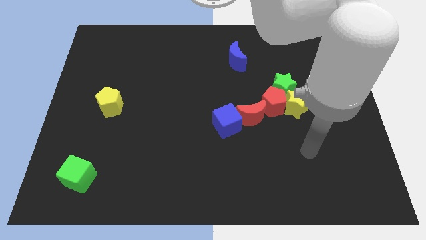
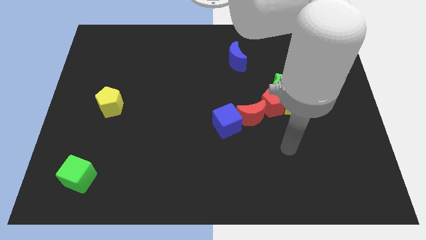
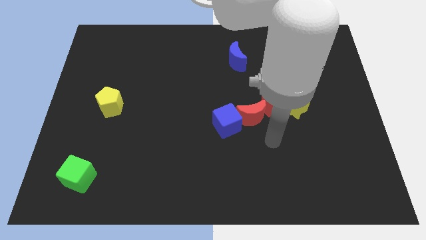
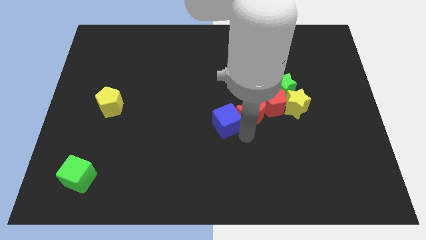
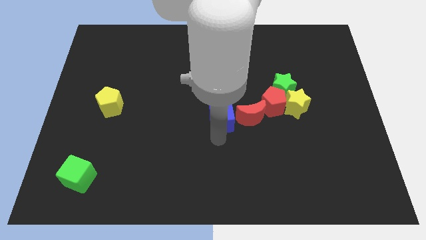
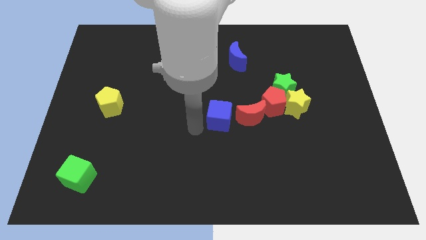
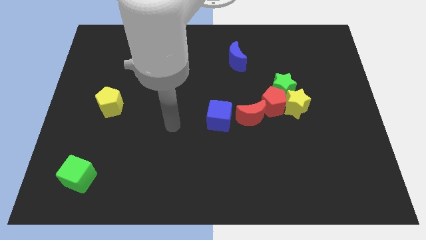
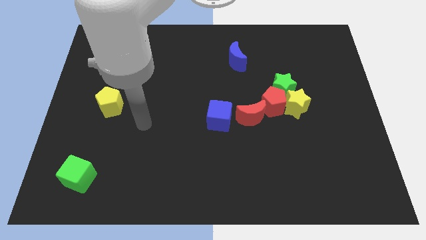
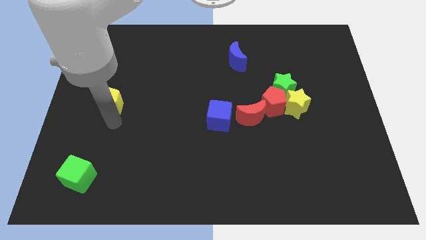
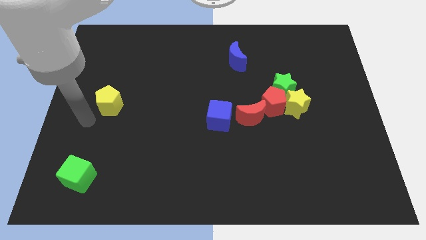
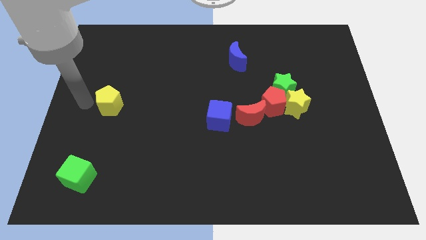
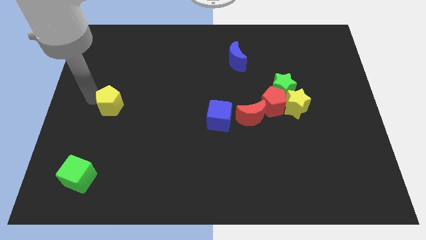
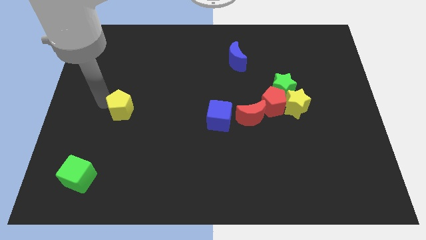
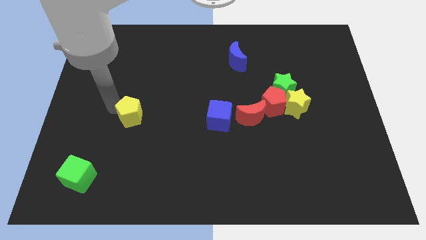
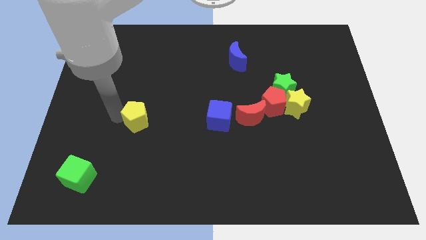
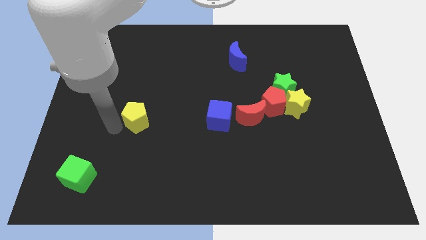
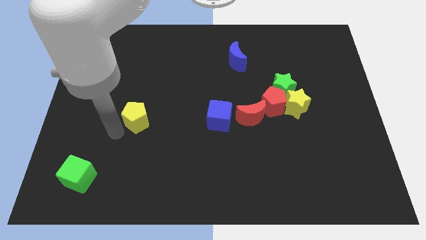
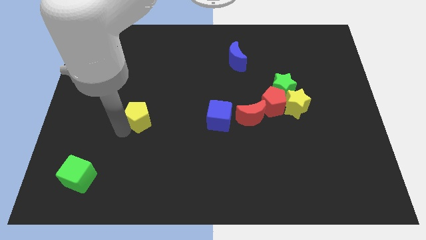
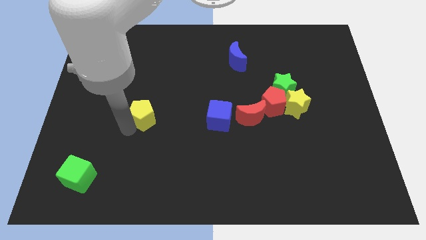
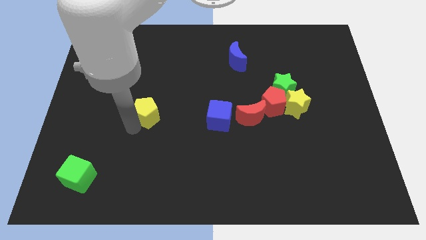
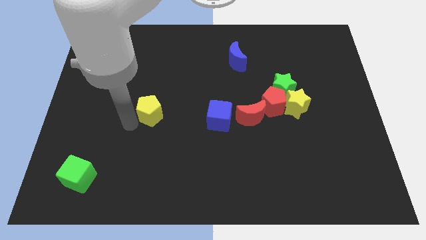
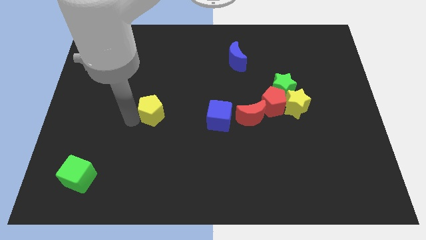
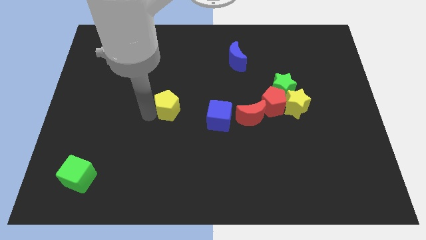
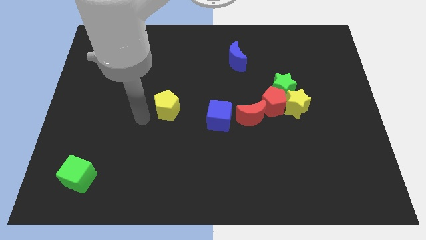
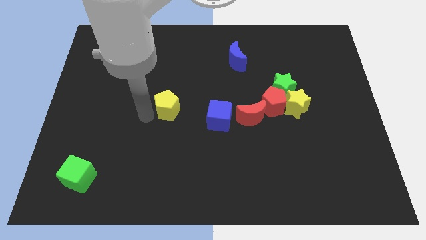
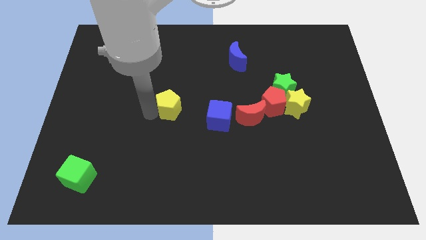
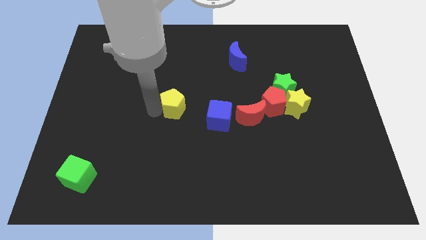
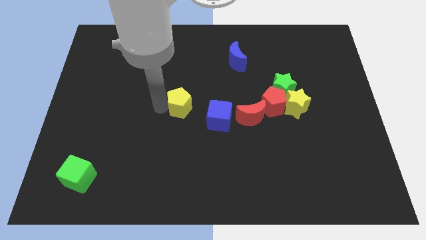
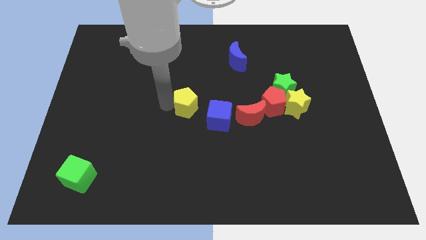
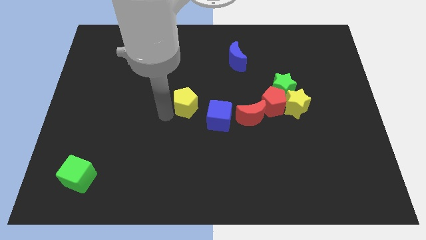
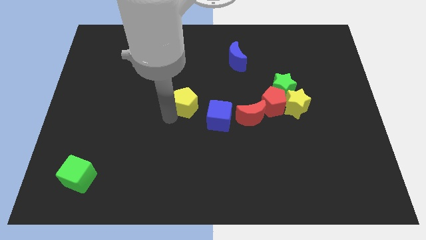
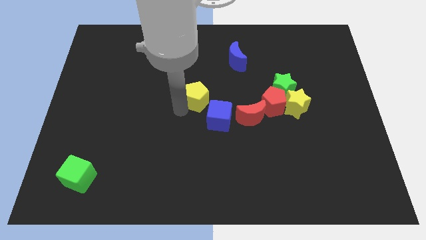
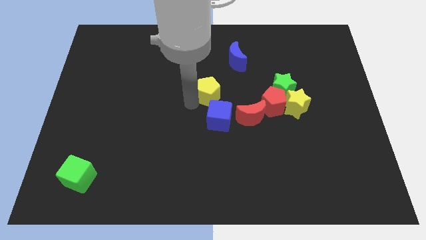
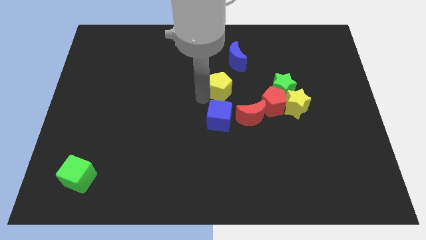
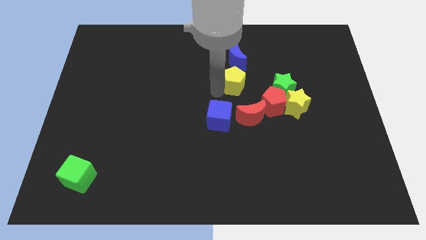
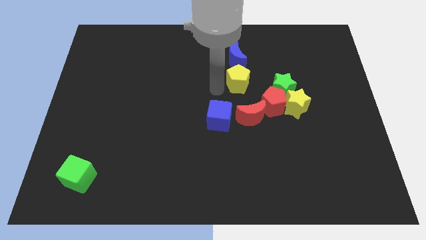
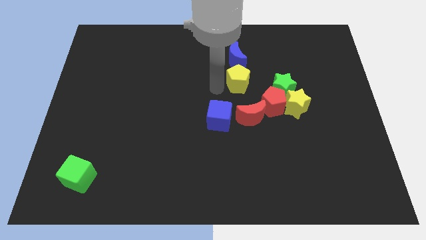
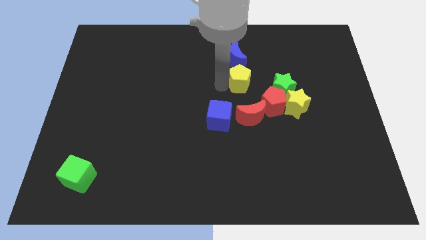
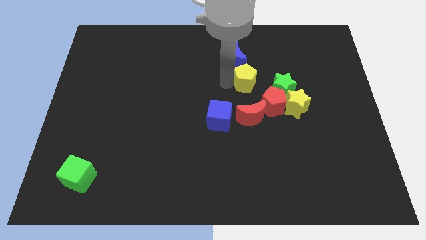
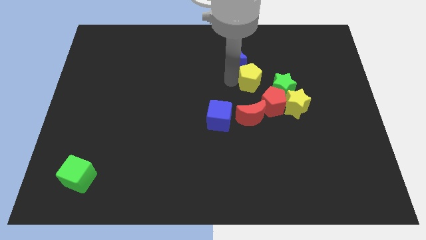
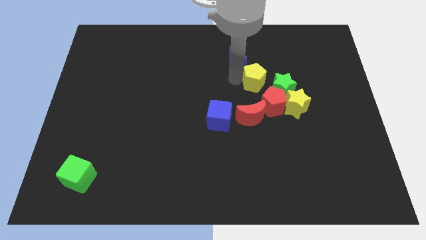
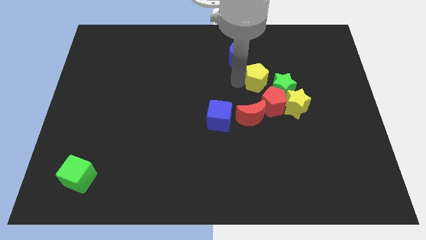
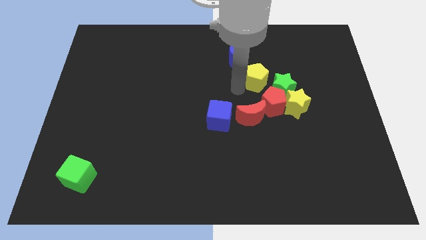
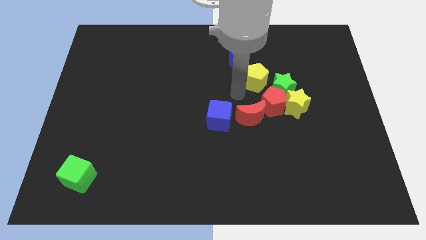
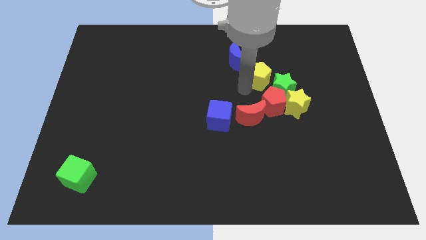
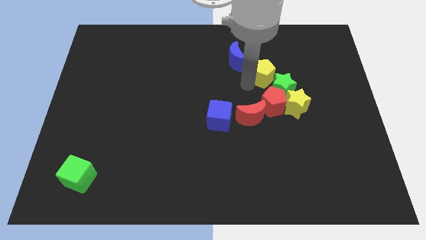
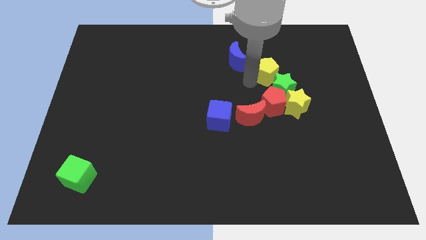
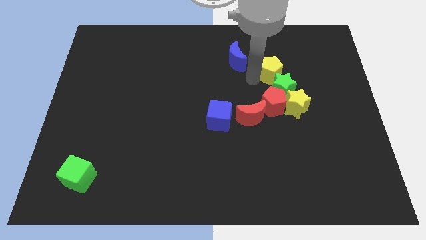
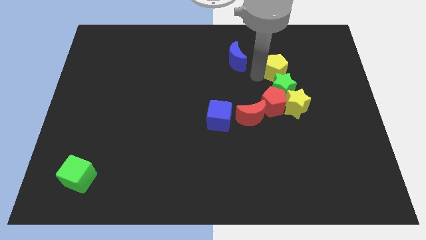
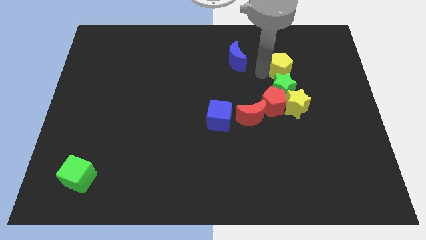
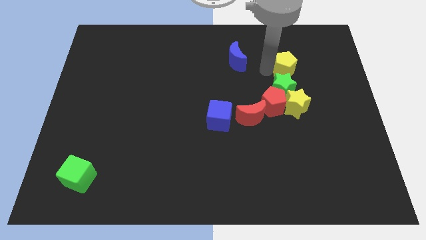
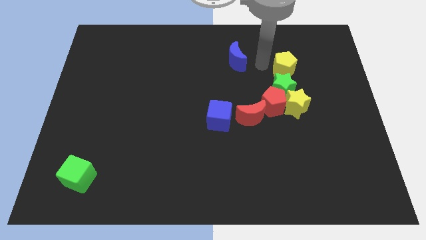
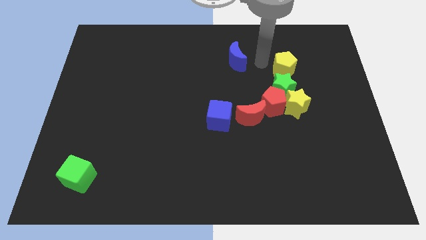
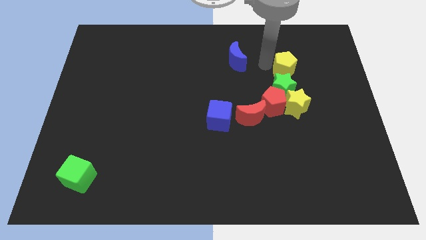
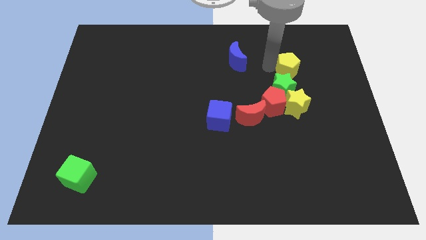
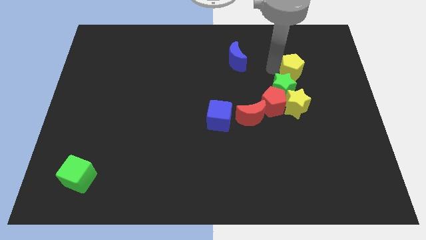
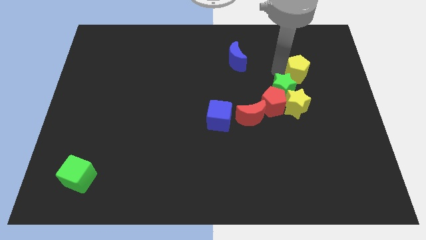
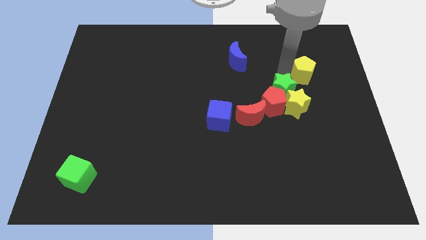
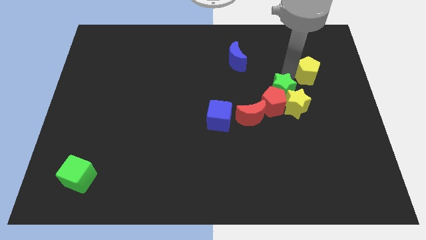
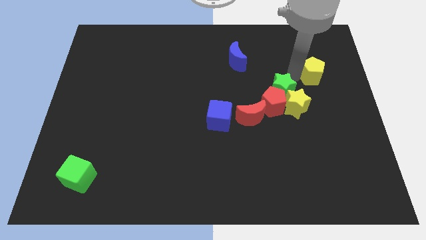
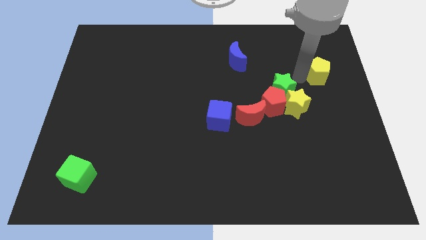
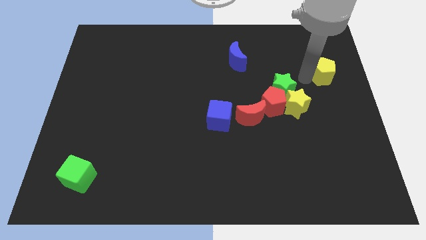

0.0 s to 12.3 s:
put the yellow pentagon to the right side
